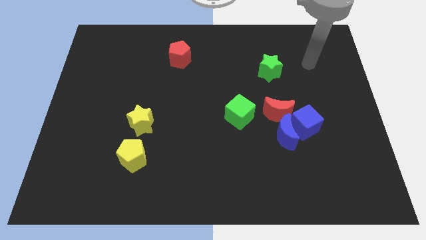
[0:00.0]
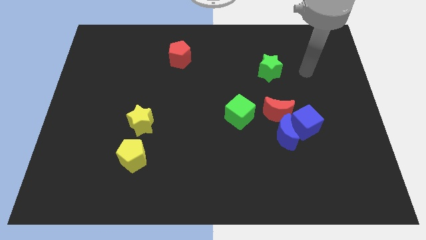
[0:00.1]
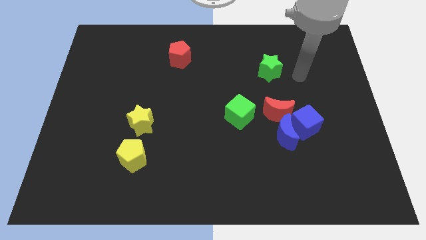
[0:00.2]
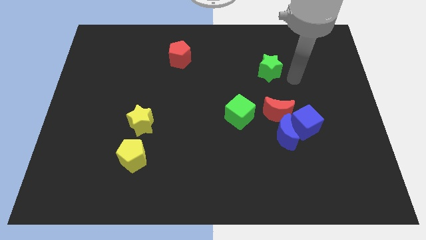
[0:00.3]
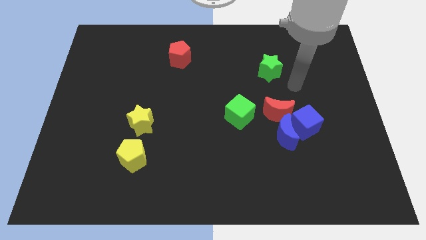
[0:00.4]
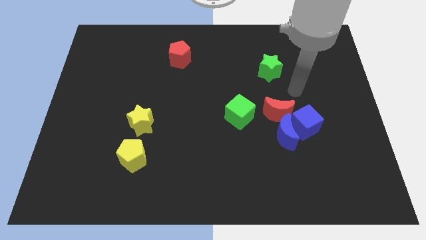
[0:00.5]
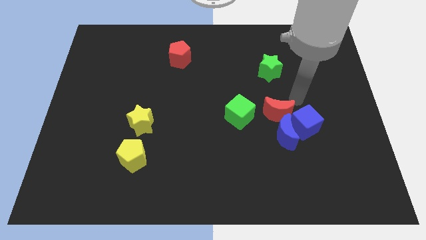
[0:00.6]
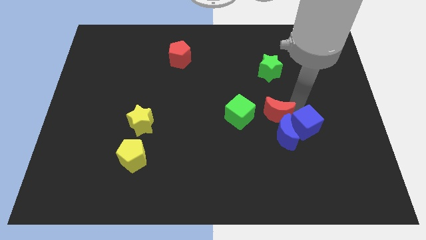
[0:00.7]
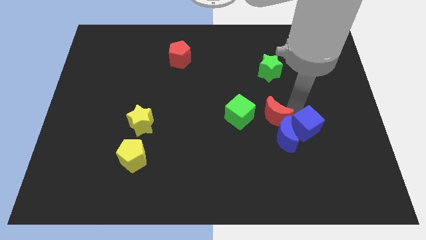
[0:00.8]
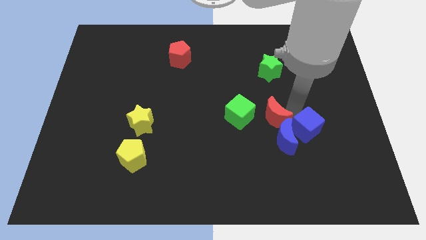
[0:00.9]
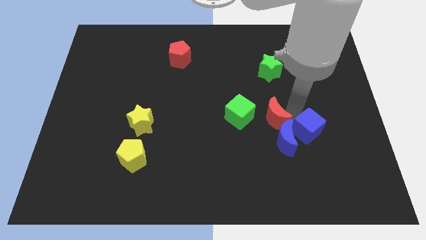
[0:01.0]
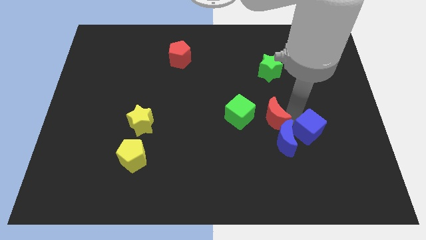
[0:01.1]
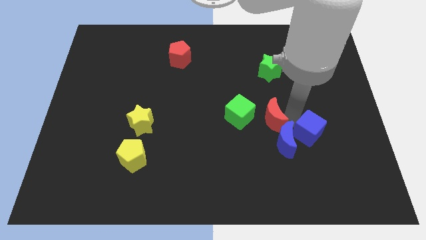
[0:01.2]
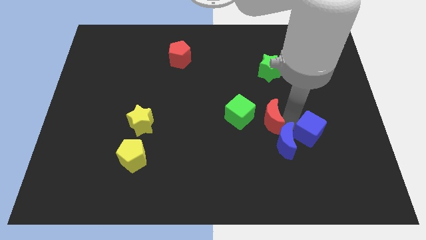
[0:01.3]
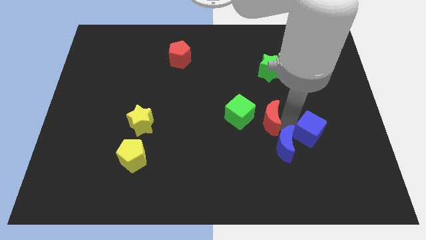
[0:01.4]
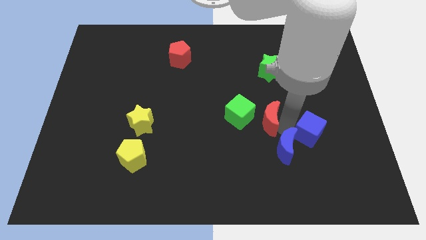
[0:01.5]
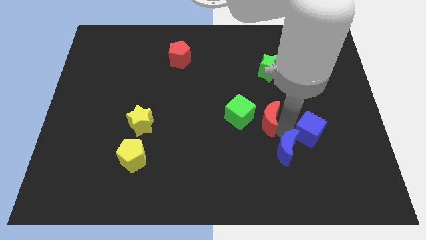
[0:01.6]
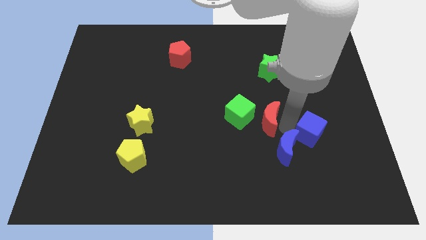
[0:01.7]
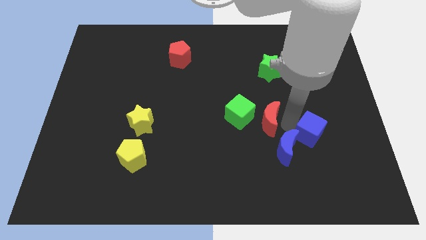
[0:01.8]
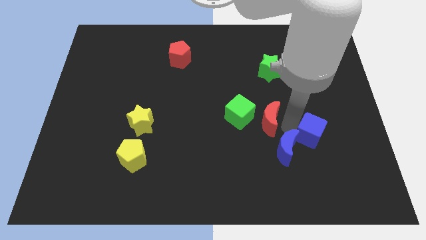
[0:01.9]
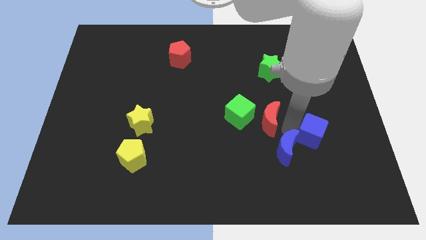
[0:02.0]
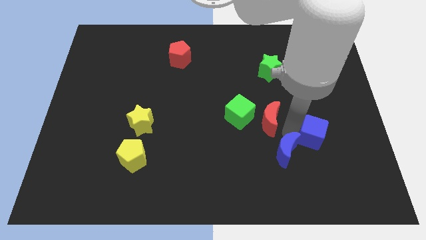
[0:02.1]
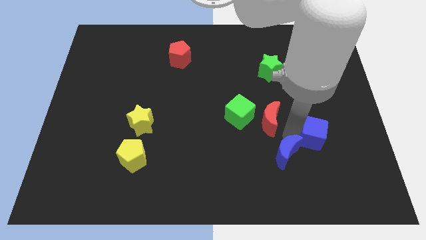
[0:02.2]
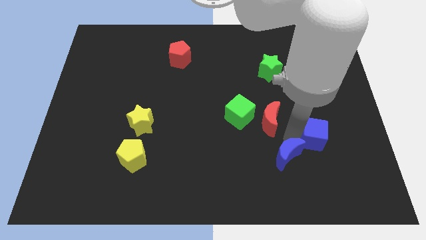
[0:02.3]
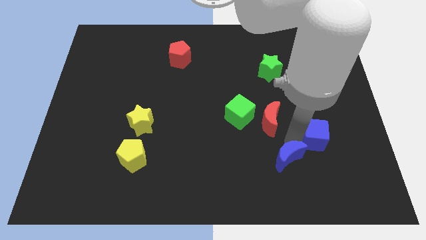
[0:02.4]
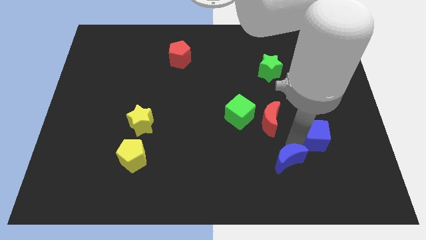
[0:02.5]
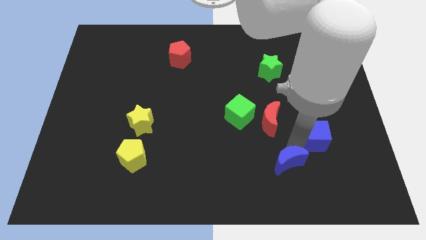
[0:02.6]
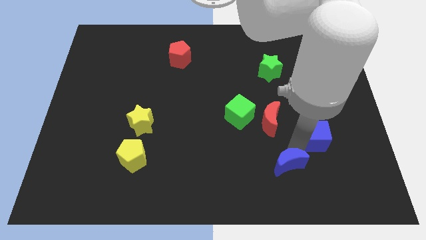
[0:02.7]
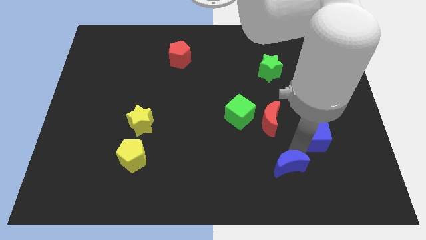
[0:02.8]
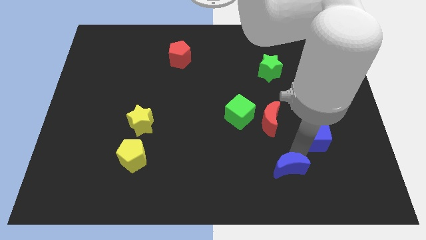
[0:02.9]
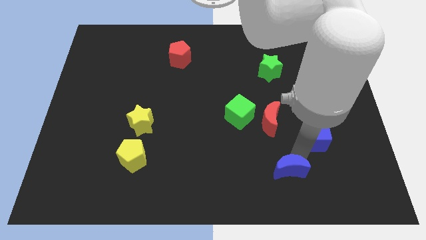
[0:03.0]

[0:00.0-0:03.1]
pull the blue moon apart from the blue cube and red moon

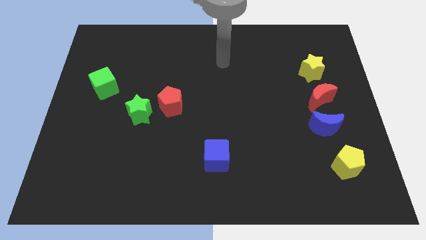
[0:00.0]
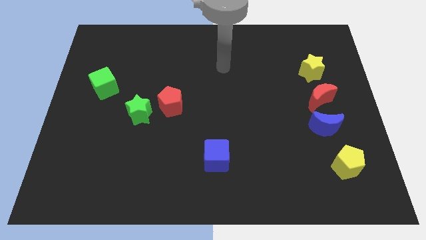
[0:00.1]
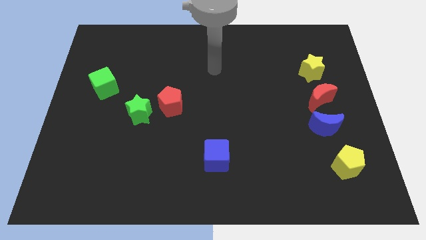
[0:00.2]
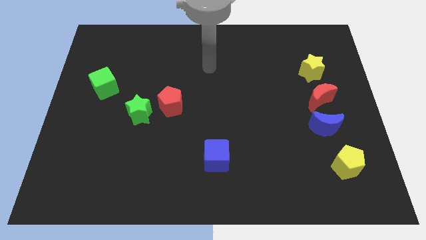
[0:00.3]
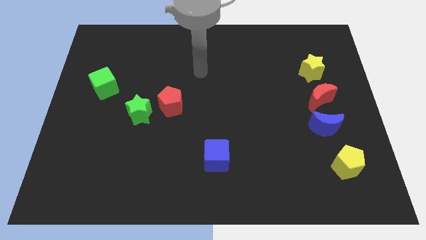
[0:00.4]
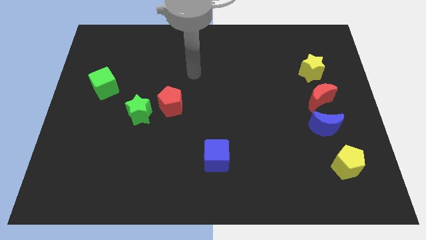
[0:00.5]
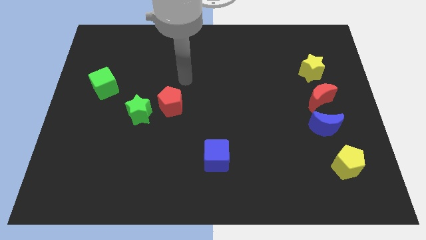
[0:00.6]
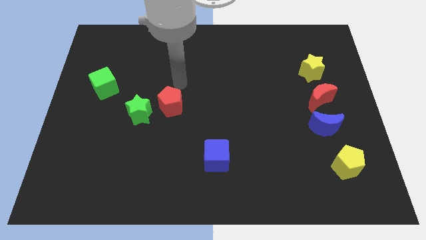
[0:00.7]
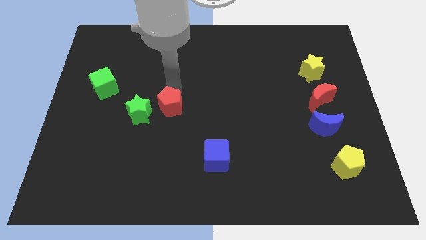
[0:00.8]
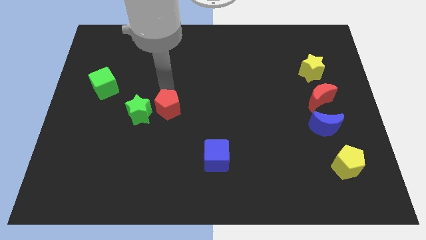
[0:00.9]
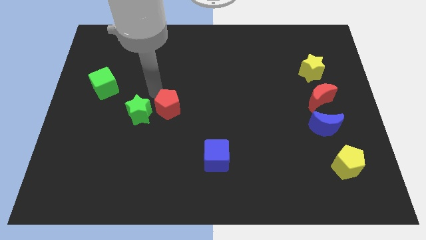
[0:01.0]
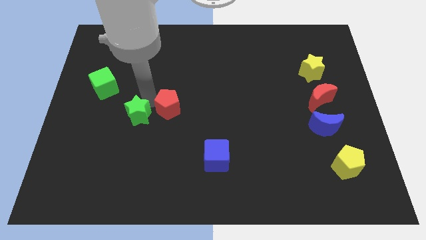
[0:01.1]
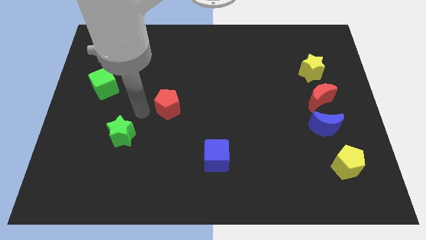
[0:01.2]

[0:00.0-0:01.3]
pull the red pentagon apart from the green star

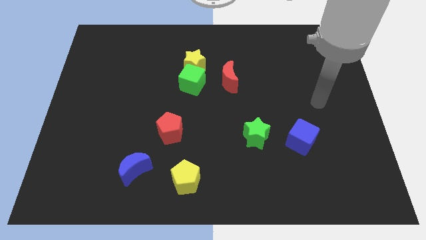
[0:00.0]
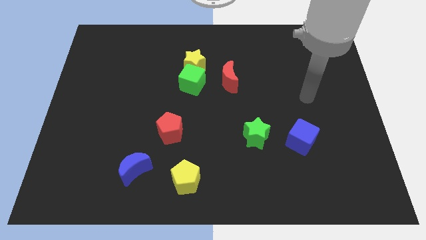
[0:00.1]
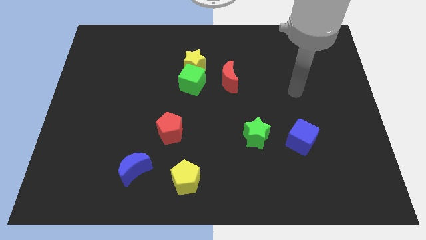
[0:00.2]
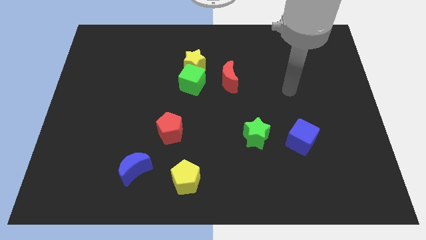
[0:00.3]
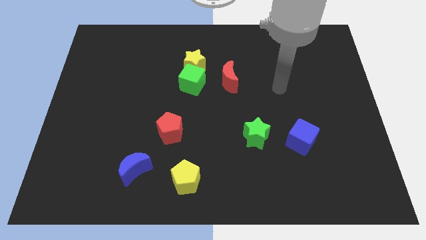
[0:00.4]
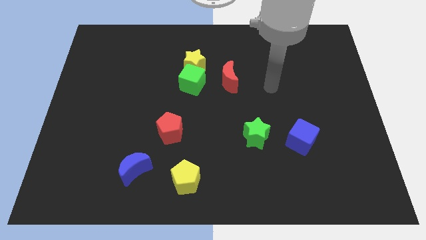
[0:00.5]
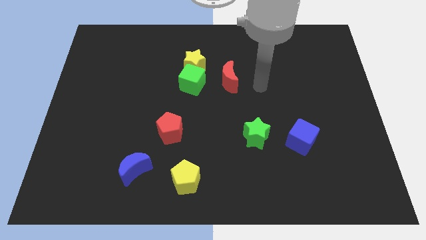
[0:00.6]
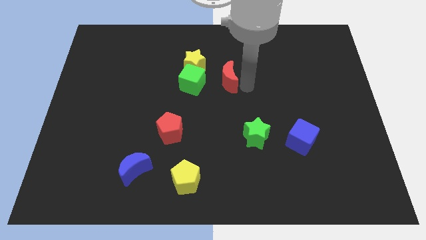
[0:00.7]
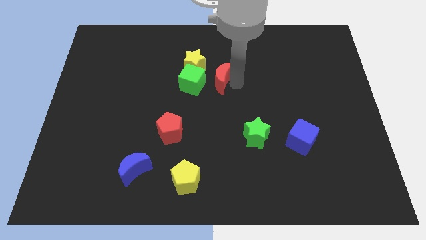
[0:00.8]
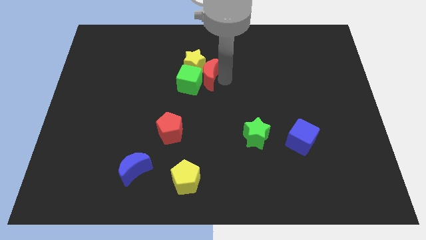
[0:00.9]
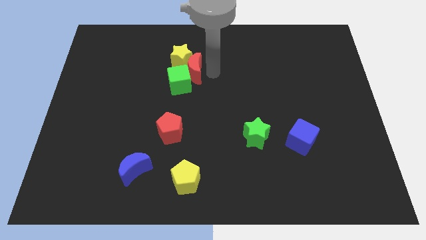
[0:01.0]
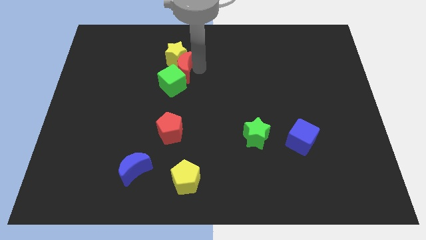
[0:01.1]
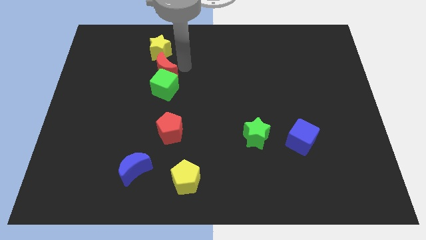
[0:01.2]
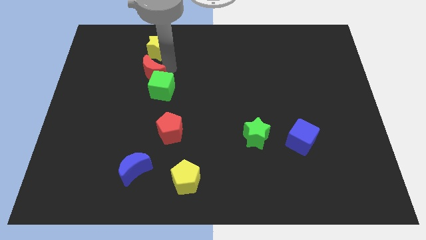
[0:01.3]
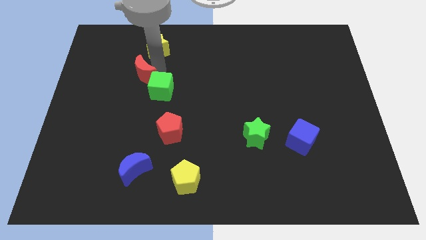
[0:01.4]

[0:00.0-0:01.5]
pull the green cube apart from the yellow star and red moon

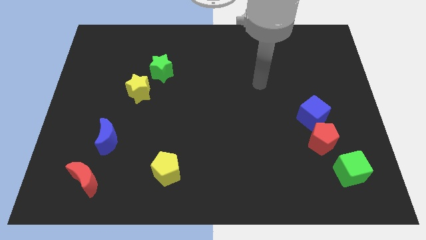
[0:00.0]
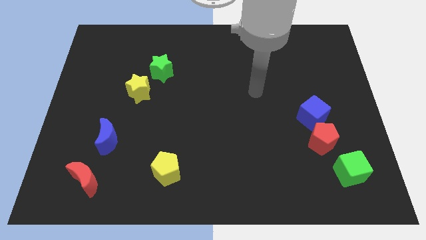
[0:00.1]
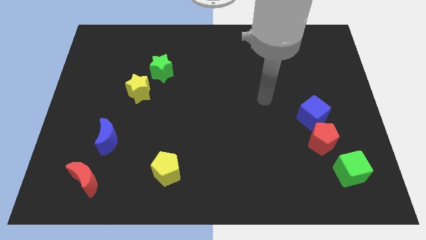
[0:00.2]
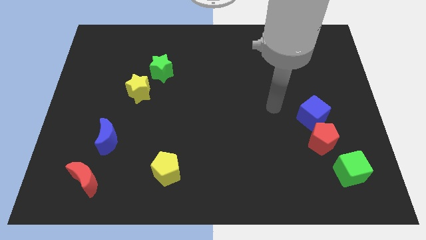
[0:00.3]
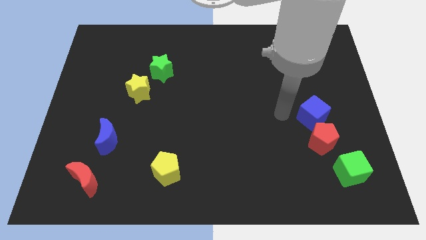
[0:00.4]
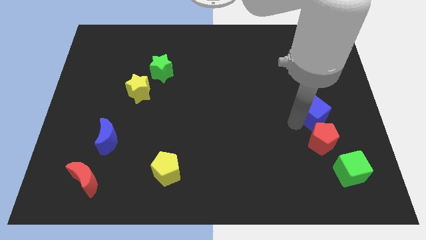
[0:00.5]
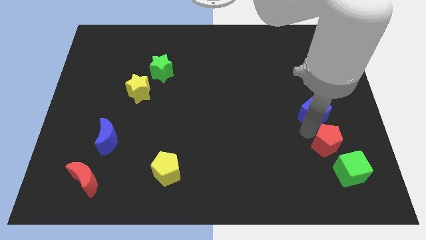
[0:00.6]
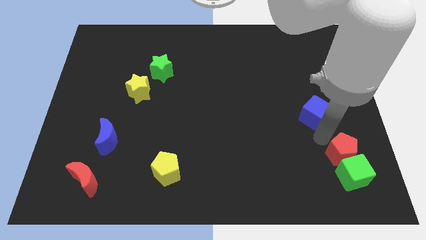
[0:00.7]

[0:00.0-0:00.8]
pull the blue cube apart from the red pentagon

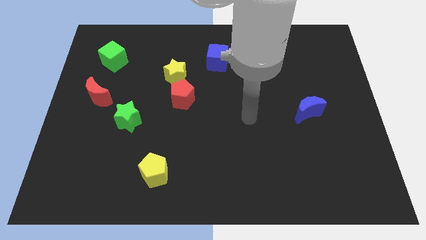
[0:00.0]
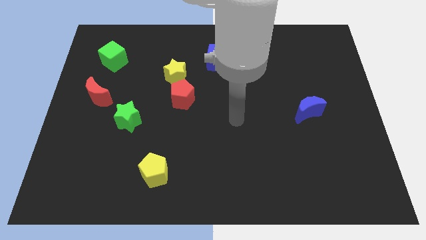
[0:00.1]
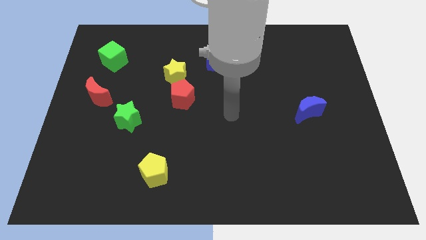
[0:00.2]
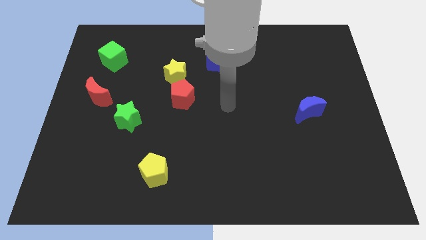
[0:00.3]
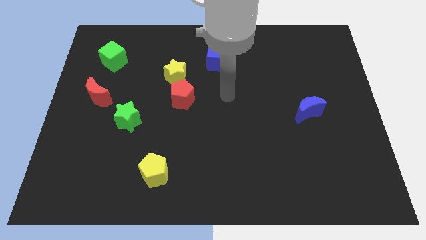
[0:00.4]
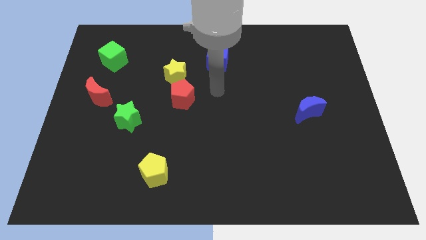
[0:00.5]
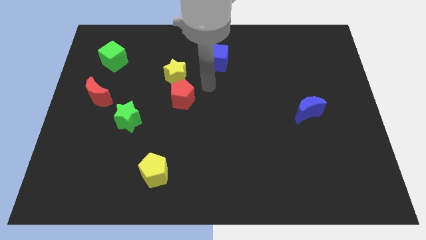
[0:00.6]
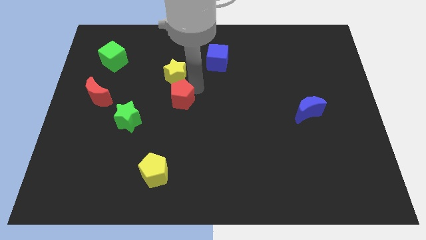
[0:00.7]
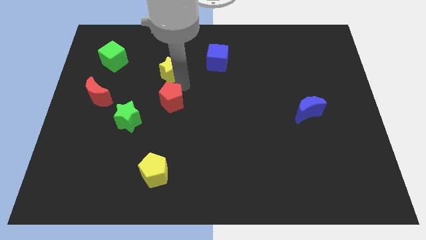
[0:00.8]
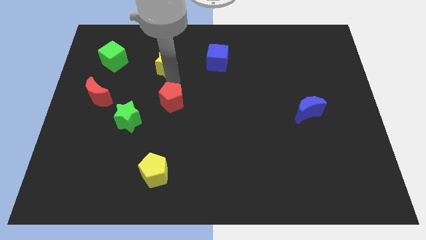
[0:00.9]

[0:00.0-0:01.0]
move the red pentagon away from the yellow star

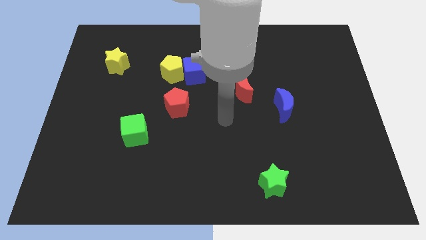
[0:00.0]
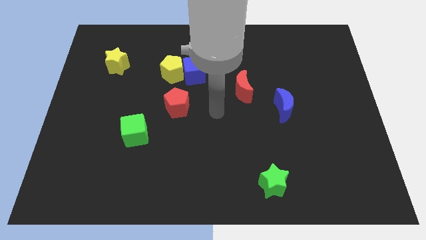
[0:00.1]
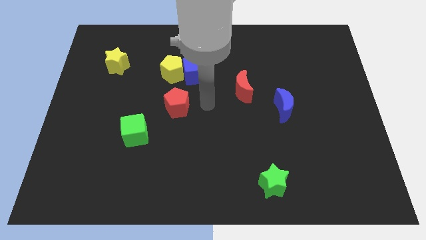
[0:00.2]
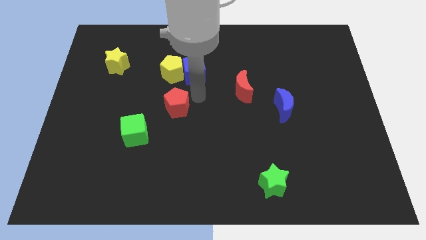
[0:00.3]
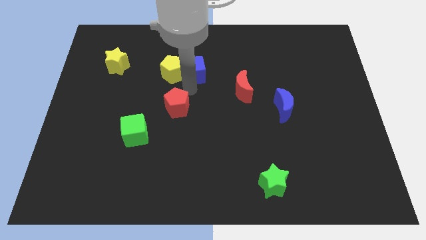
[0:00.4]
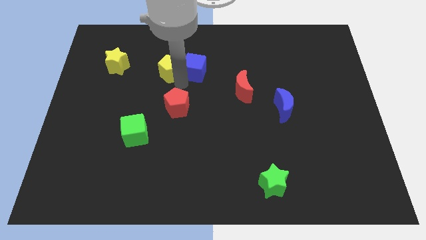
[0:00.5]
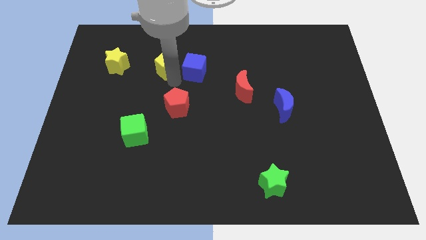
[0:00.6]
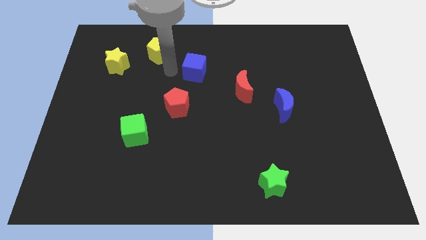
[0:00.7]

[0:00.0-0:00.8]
move the blue cube away from the yellow pentagon

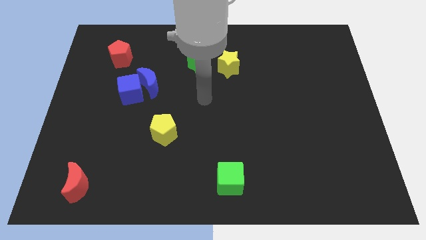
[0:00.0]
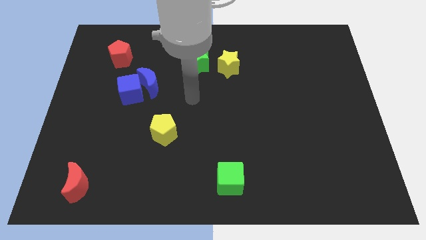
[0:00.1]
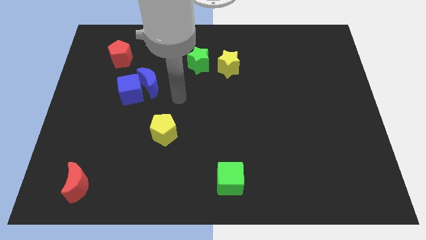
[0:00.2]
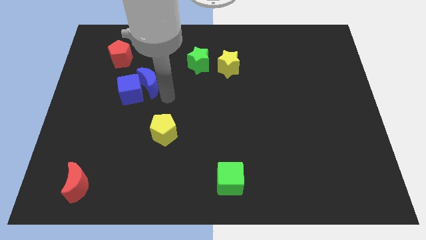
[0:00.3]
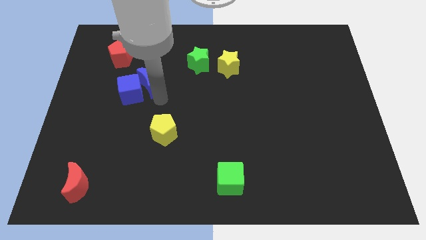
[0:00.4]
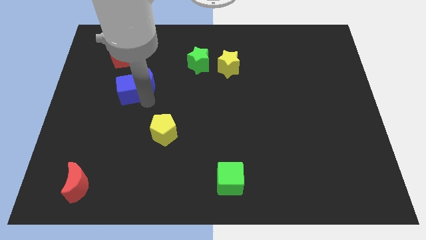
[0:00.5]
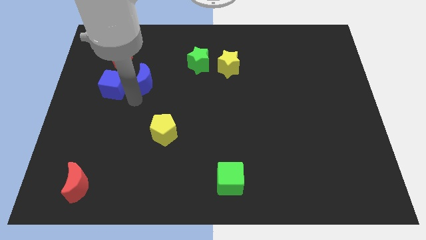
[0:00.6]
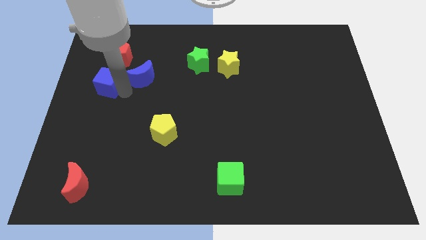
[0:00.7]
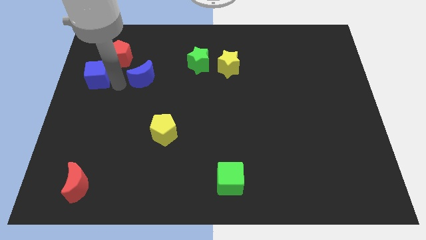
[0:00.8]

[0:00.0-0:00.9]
separate the blue moon from the blue cube

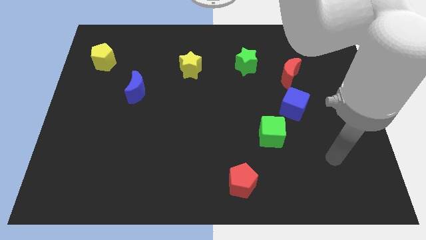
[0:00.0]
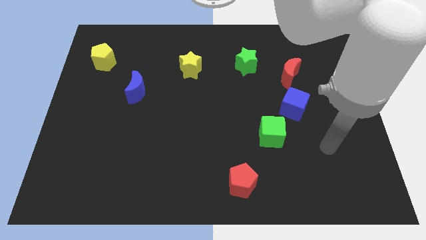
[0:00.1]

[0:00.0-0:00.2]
pull the green cube apart from the blue cube
